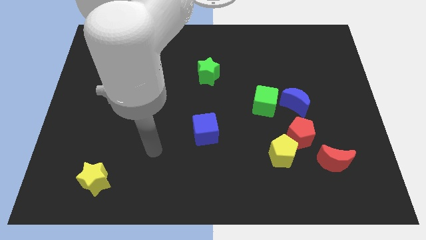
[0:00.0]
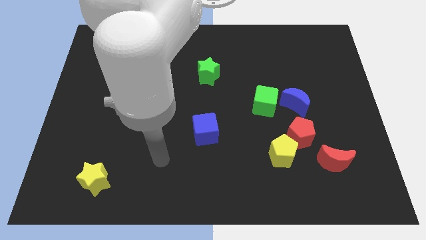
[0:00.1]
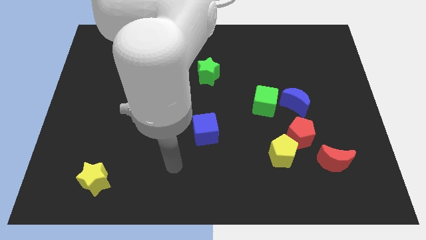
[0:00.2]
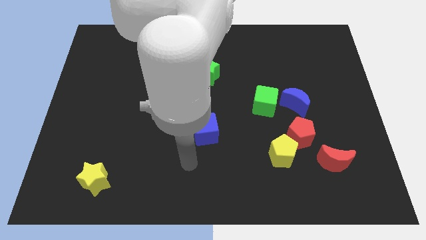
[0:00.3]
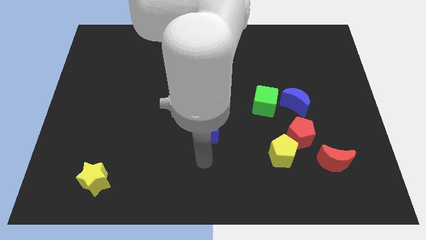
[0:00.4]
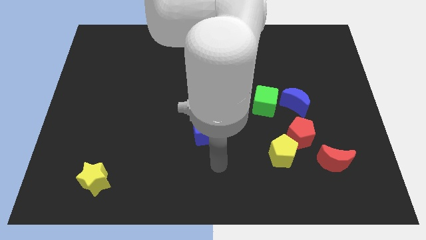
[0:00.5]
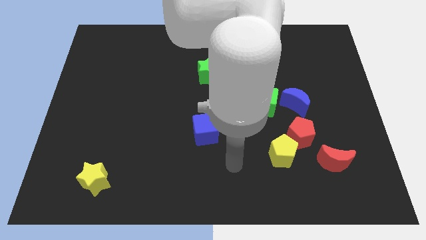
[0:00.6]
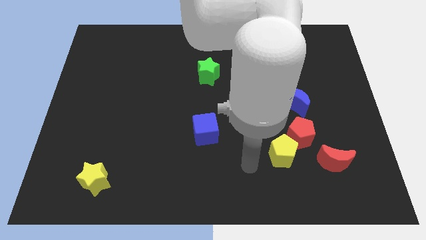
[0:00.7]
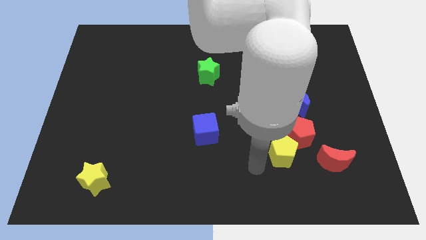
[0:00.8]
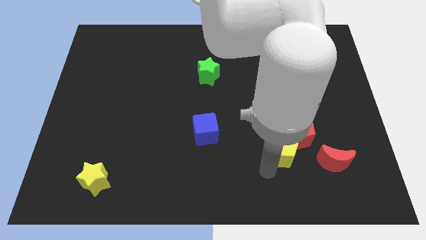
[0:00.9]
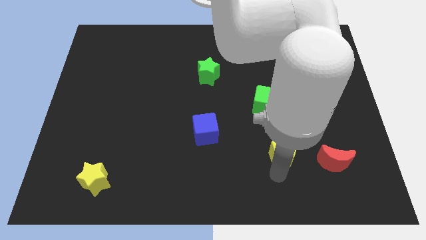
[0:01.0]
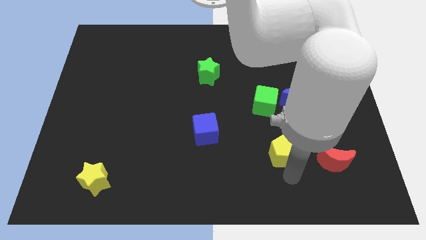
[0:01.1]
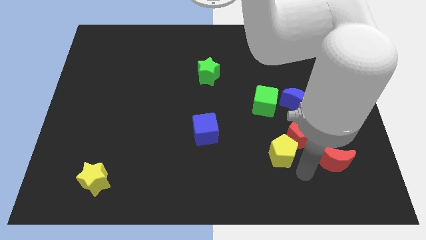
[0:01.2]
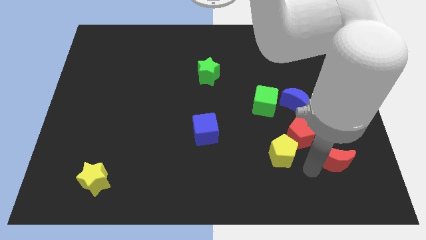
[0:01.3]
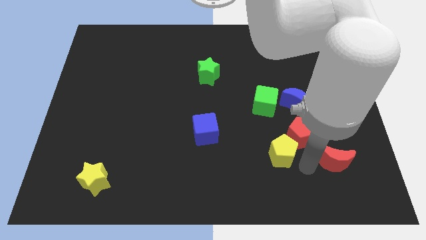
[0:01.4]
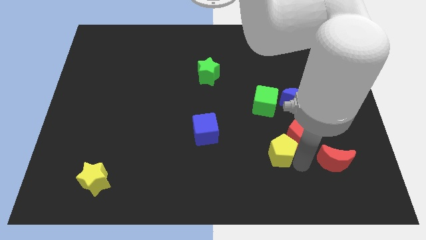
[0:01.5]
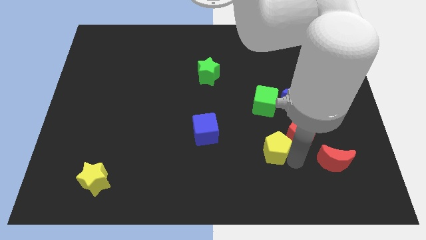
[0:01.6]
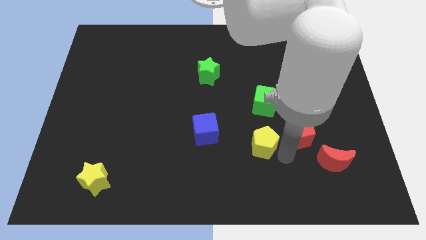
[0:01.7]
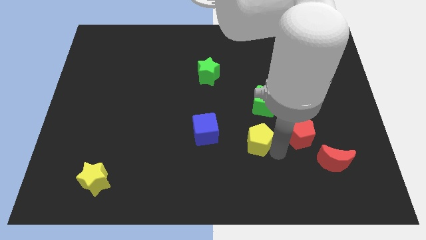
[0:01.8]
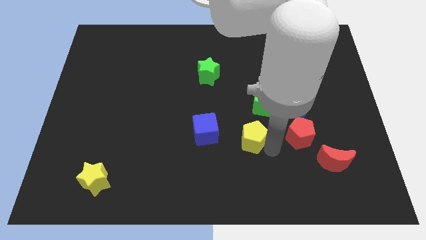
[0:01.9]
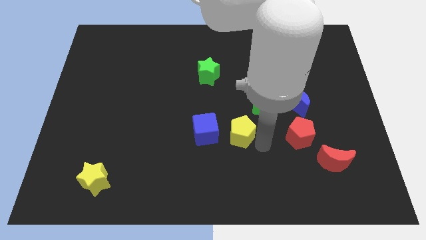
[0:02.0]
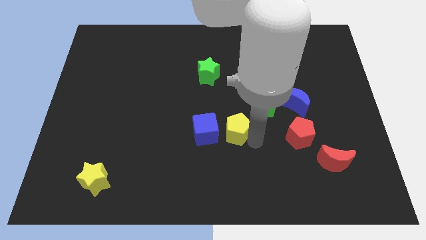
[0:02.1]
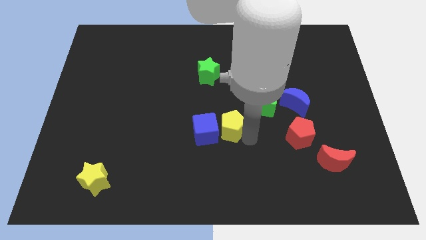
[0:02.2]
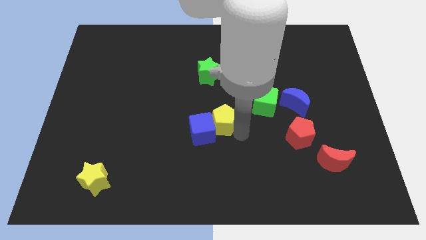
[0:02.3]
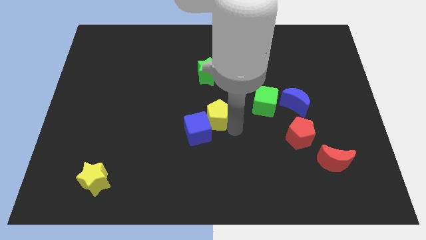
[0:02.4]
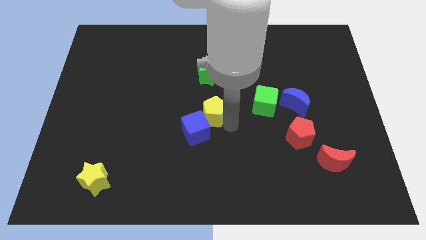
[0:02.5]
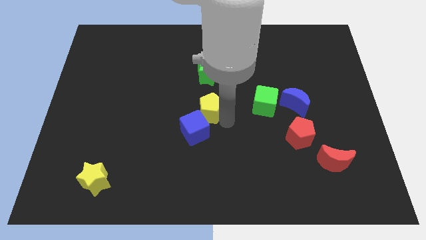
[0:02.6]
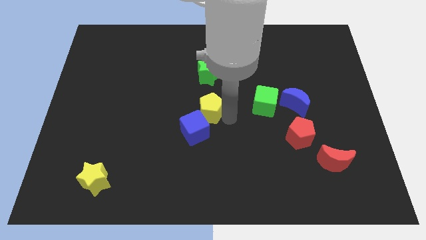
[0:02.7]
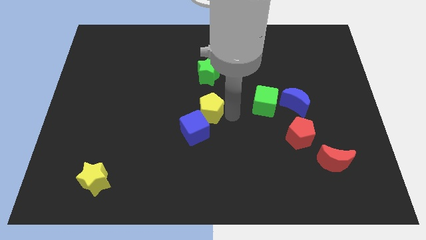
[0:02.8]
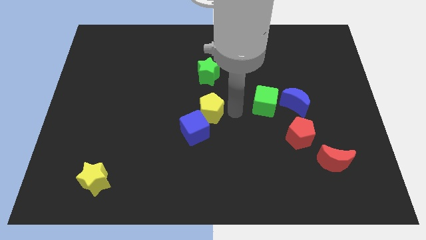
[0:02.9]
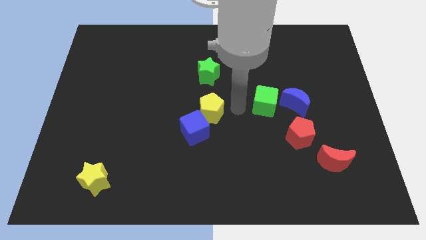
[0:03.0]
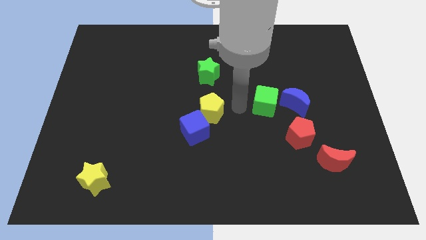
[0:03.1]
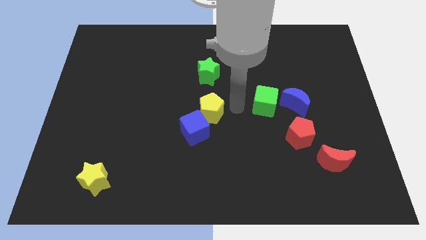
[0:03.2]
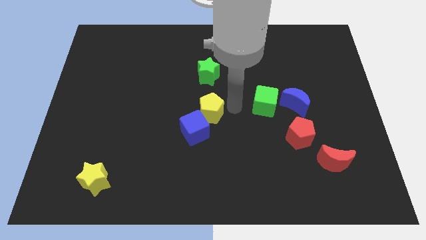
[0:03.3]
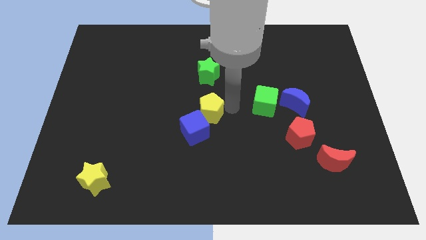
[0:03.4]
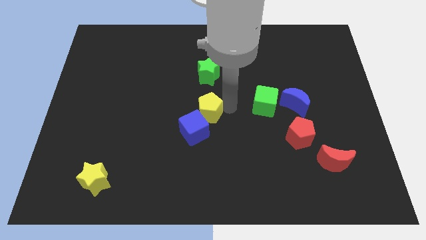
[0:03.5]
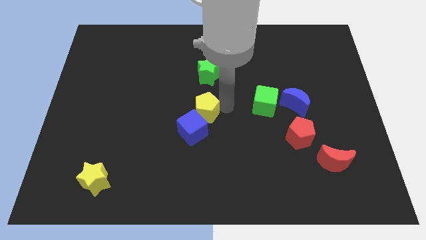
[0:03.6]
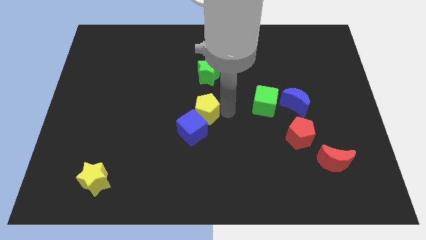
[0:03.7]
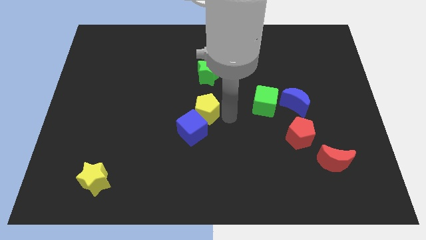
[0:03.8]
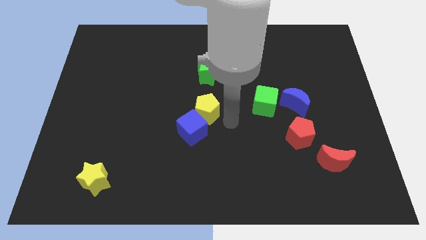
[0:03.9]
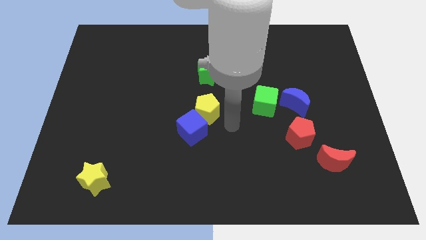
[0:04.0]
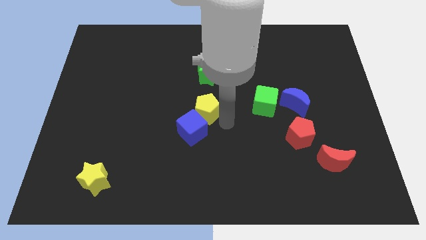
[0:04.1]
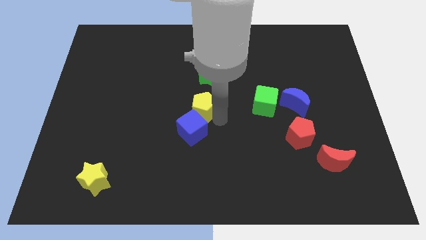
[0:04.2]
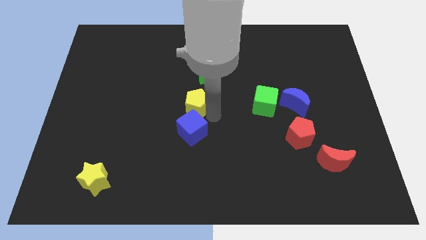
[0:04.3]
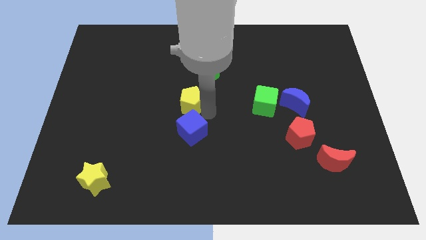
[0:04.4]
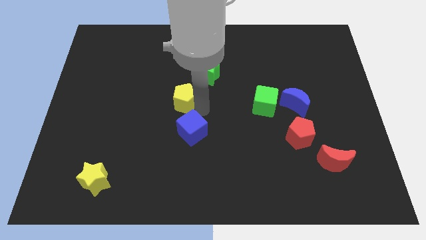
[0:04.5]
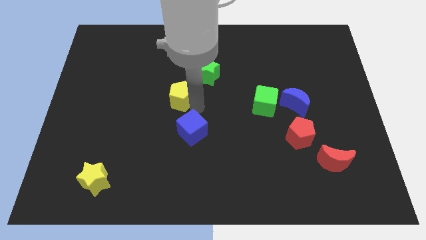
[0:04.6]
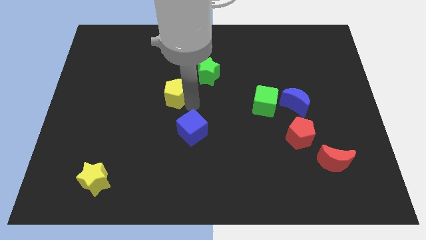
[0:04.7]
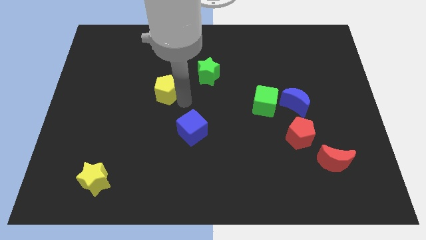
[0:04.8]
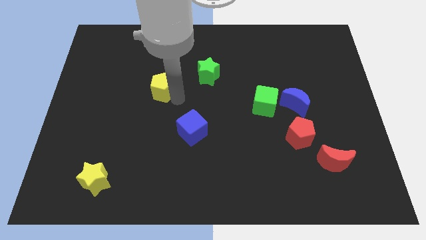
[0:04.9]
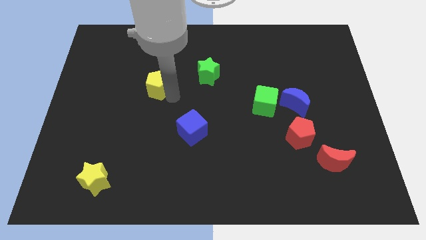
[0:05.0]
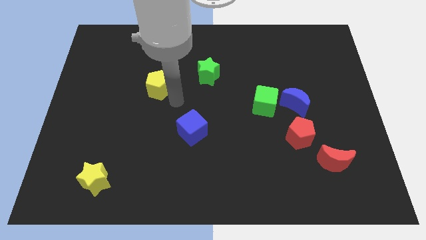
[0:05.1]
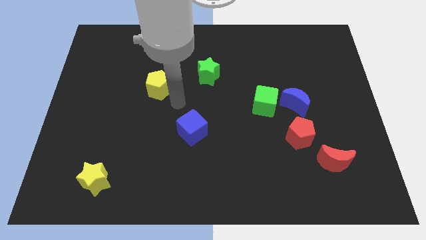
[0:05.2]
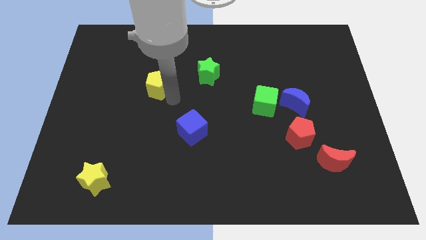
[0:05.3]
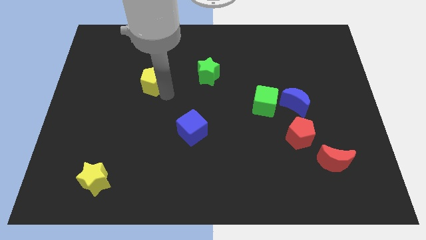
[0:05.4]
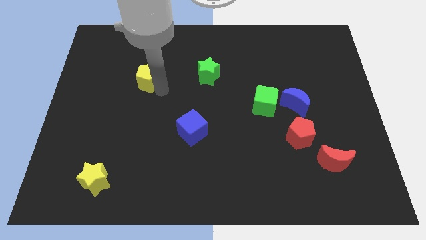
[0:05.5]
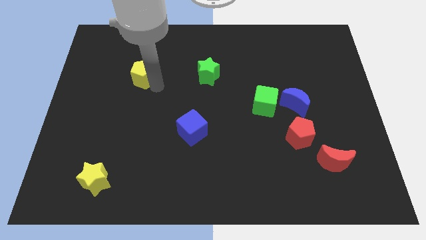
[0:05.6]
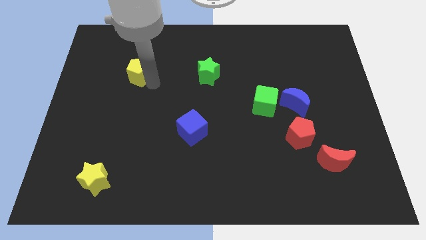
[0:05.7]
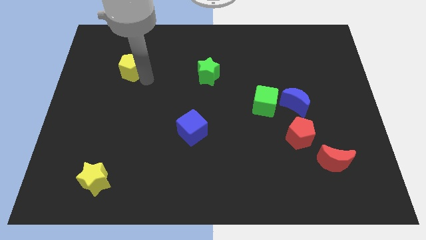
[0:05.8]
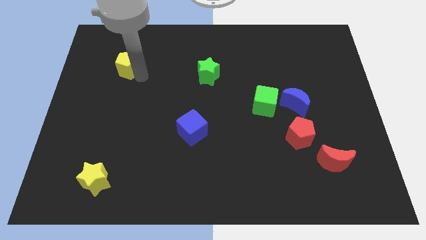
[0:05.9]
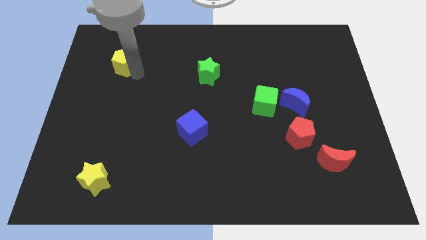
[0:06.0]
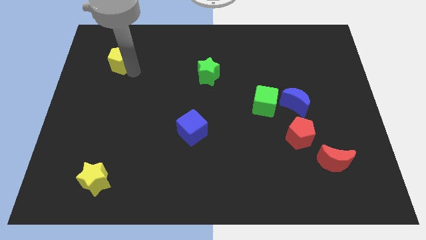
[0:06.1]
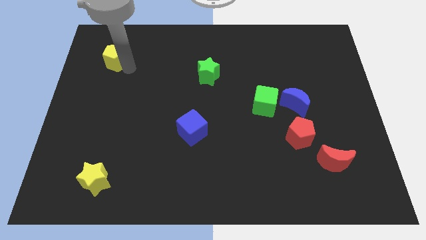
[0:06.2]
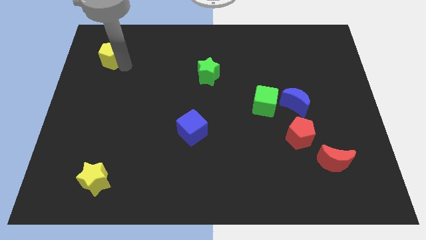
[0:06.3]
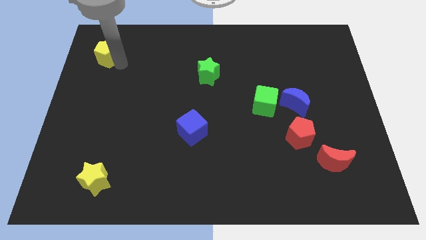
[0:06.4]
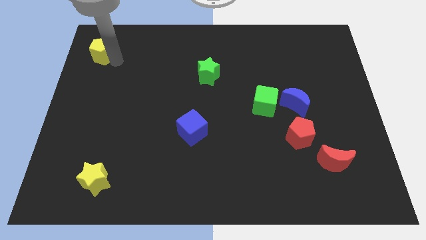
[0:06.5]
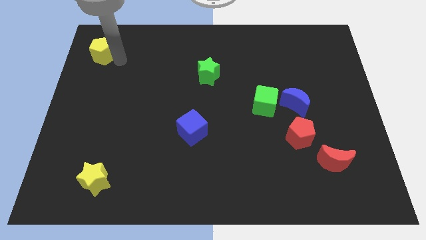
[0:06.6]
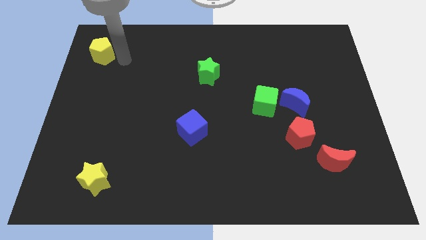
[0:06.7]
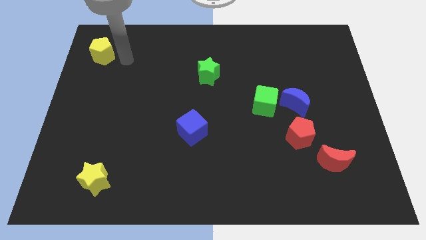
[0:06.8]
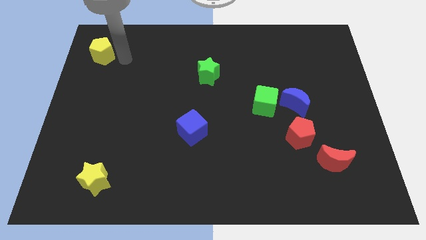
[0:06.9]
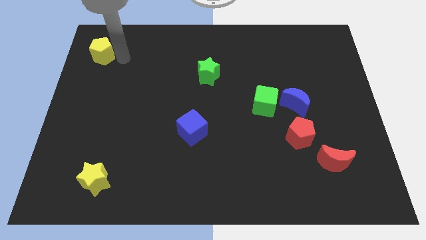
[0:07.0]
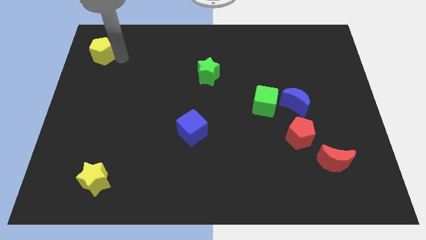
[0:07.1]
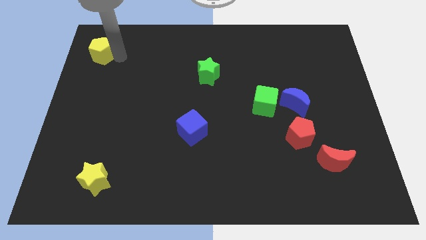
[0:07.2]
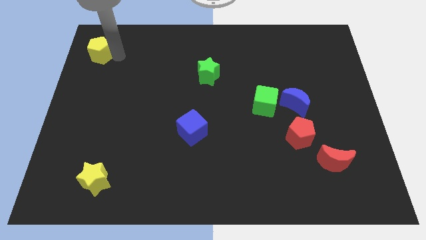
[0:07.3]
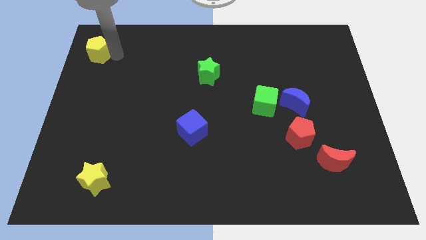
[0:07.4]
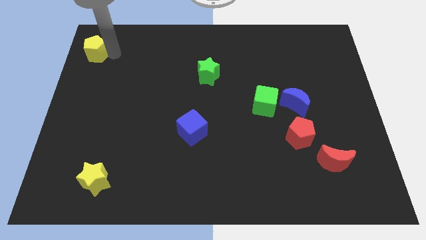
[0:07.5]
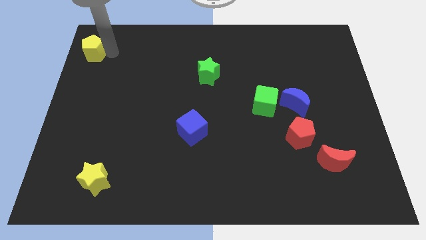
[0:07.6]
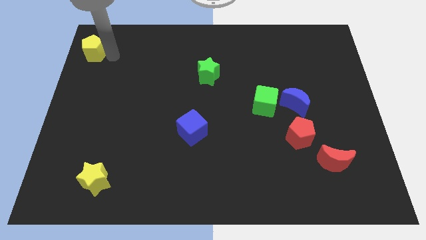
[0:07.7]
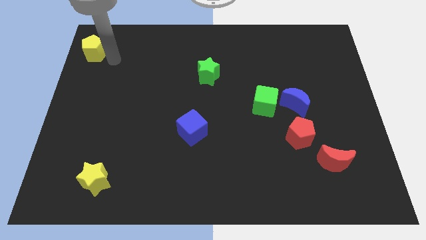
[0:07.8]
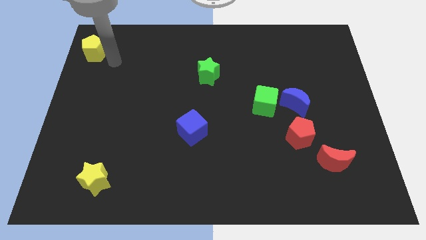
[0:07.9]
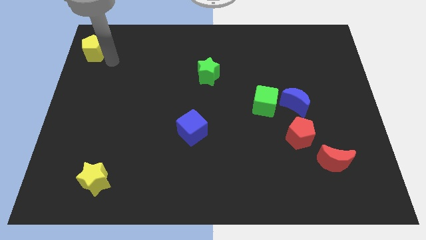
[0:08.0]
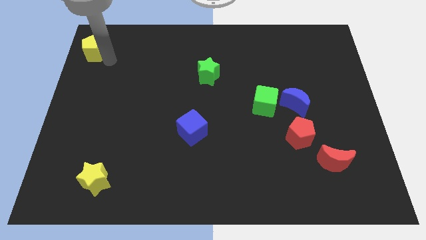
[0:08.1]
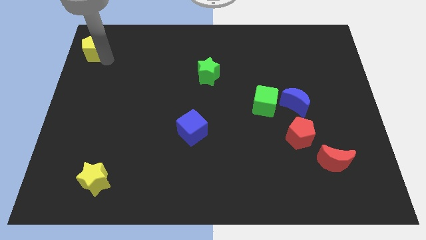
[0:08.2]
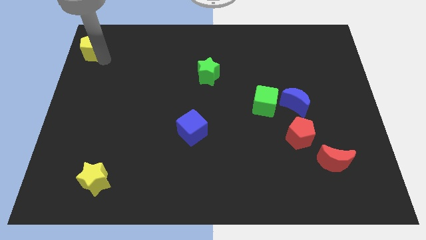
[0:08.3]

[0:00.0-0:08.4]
slide the yellow pentagon to the top left
